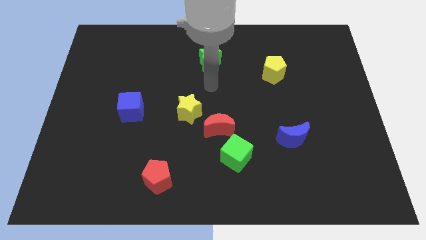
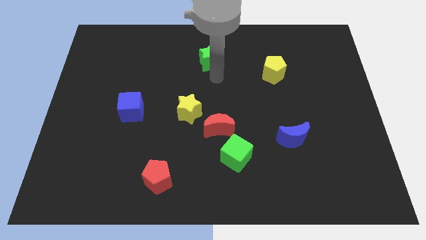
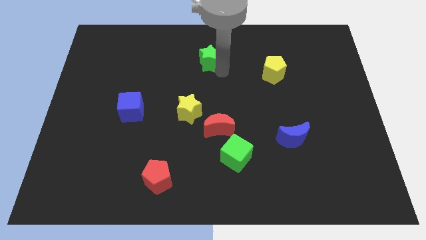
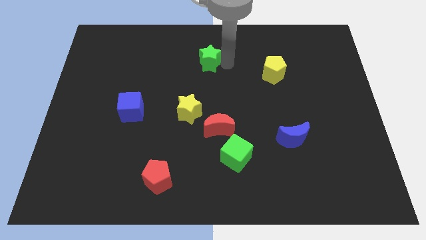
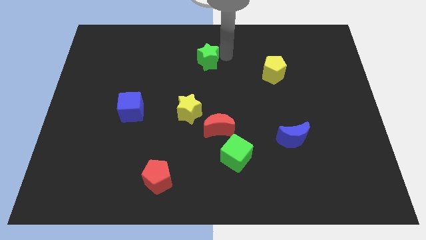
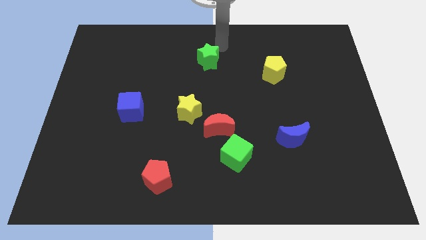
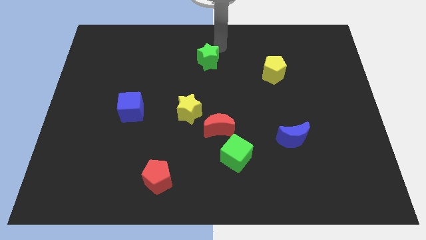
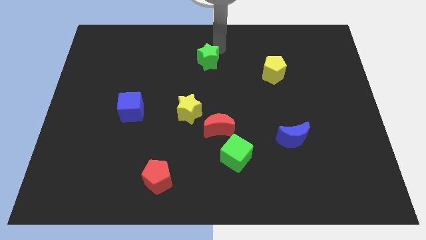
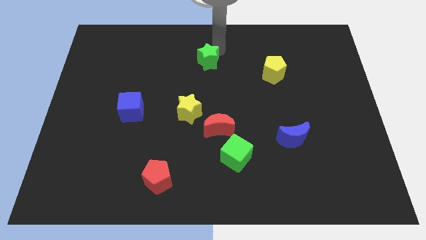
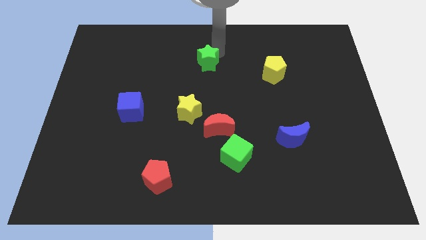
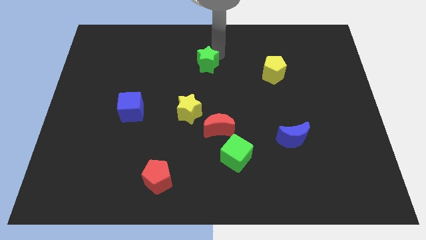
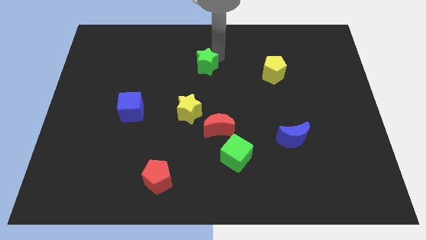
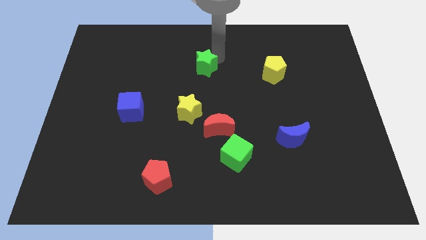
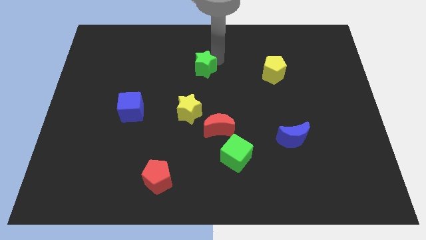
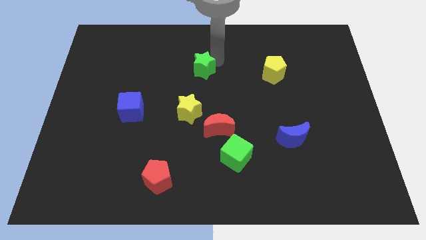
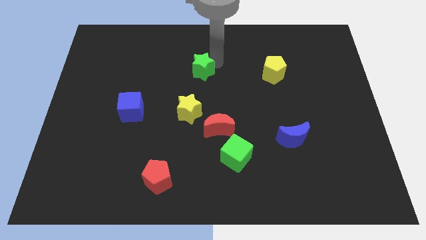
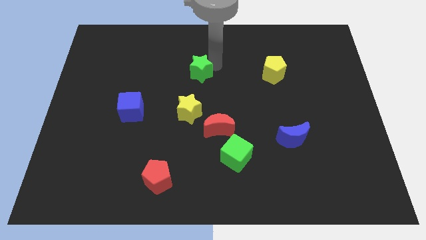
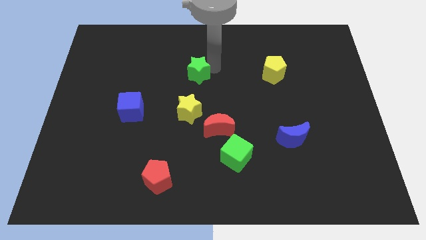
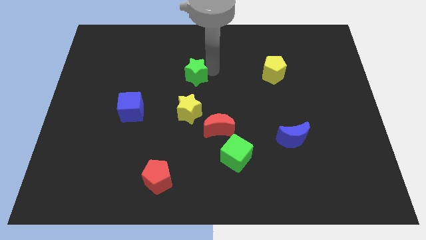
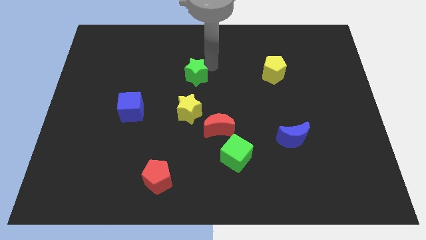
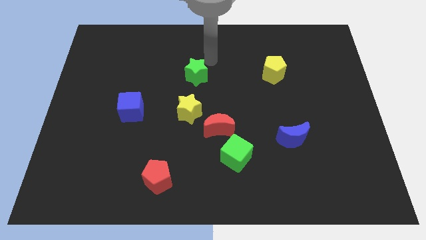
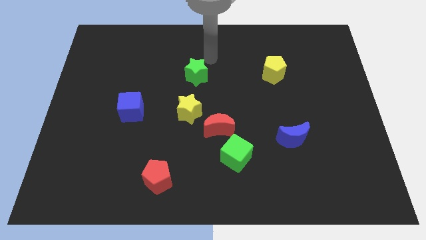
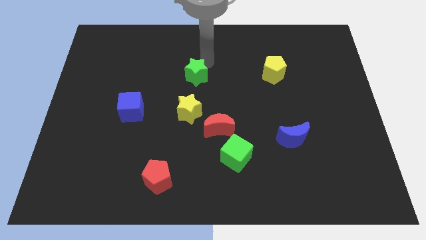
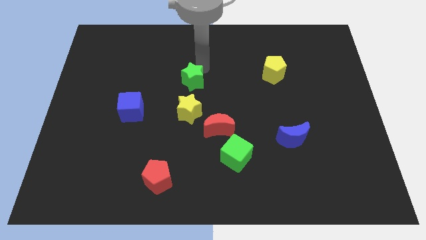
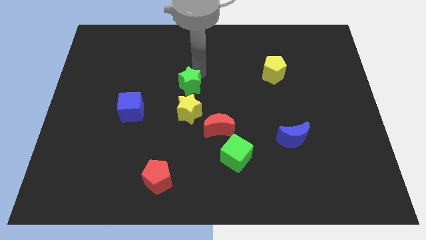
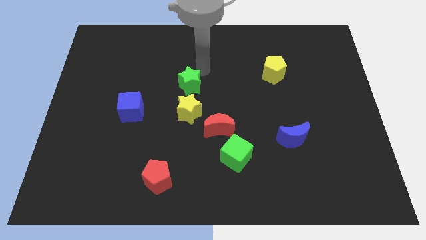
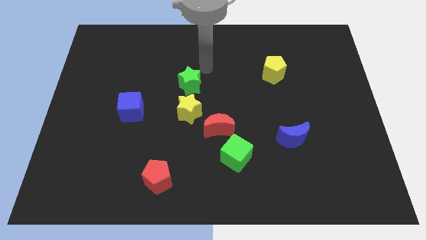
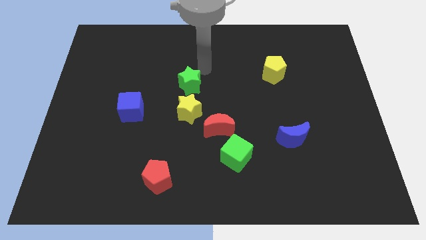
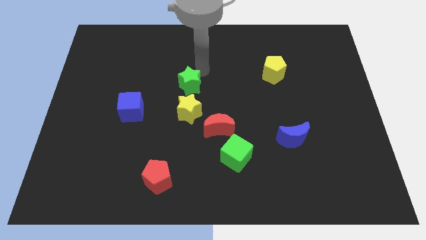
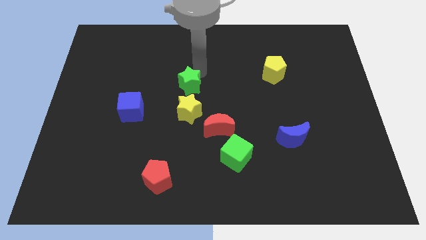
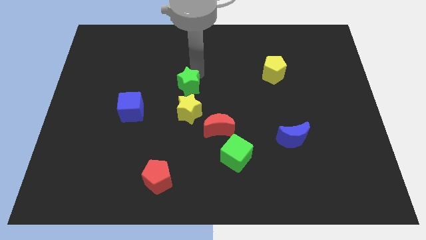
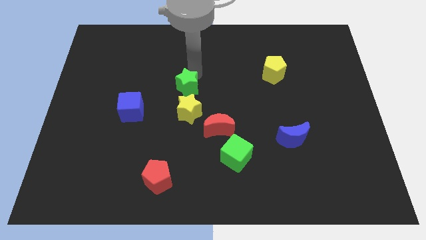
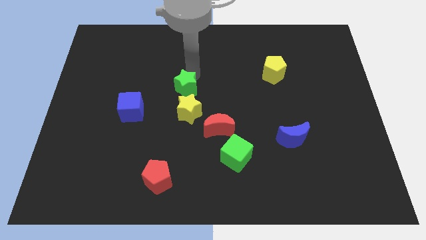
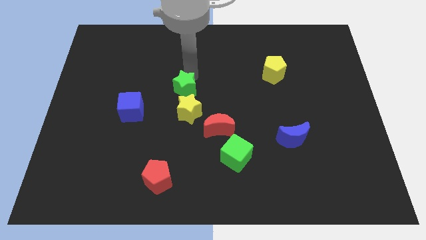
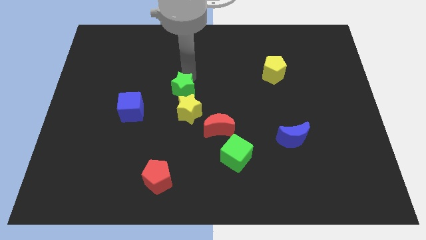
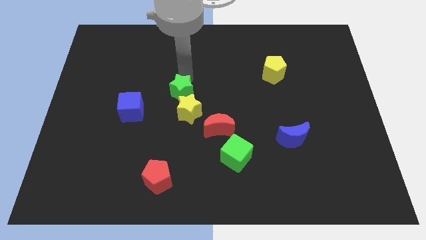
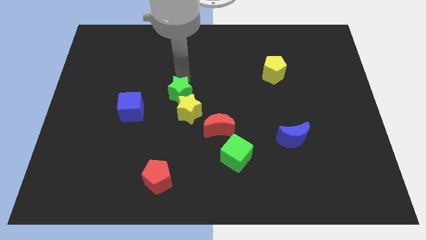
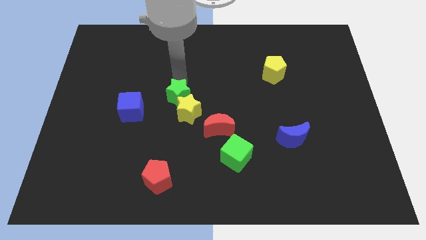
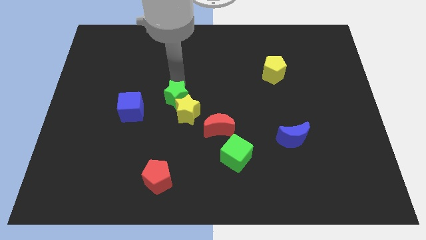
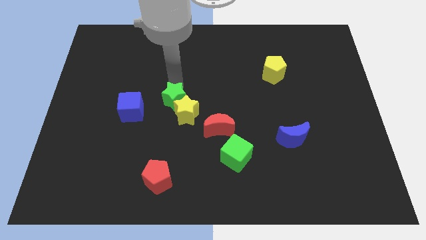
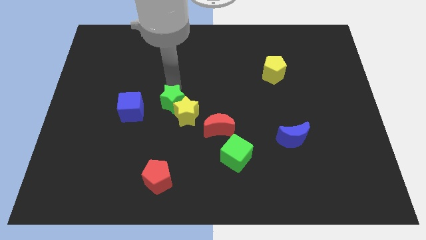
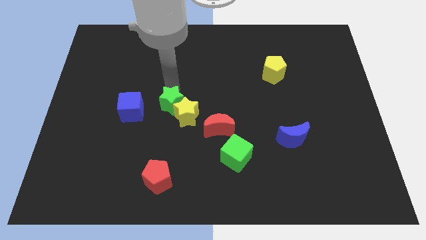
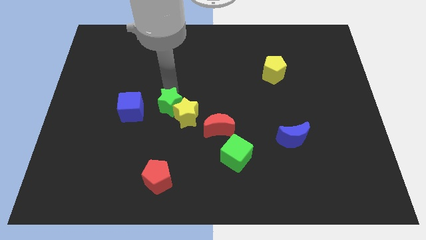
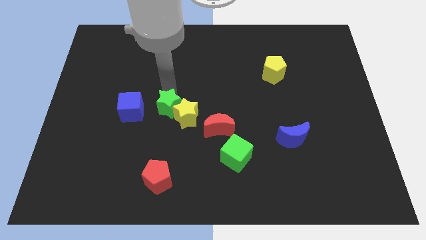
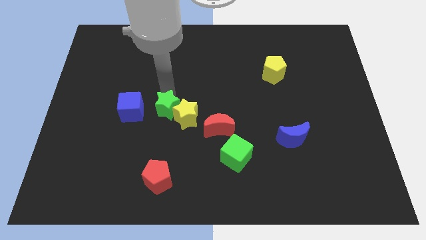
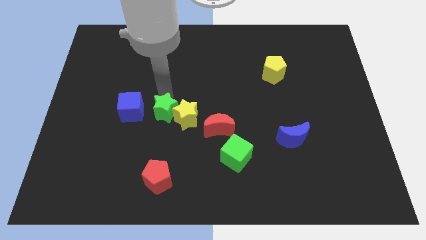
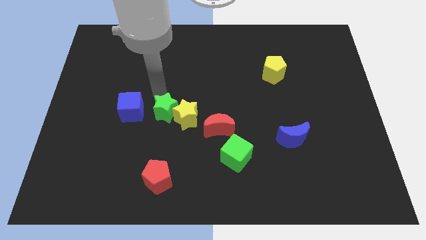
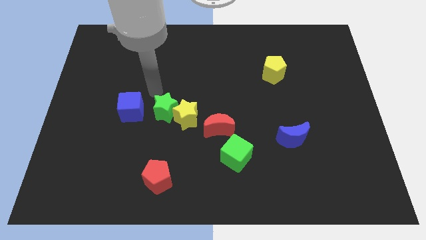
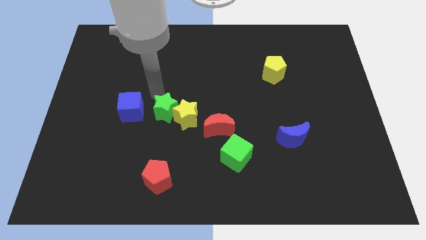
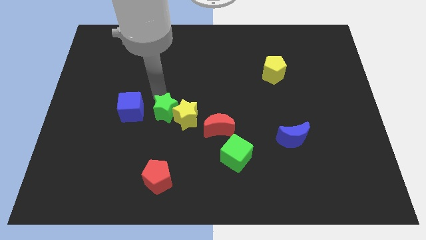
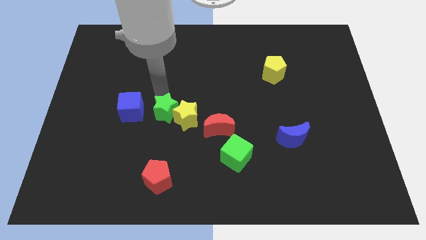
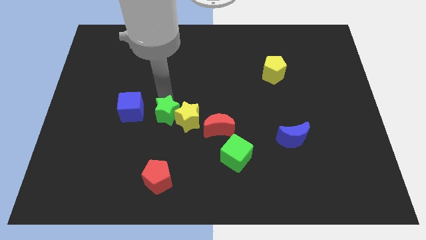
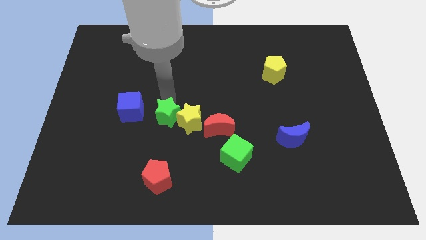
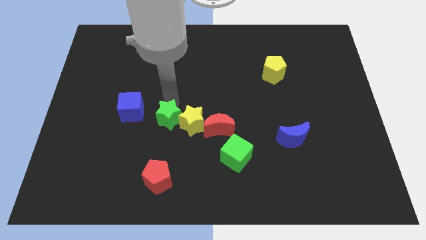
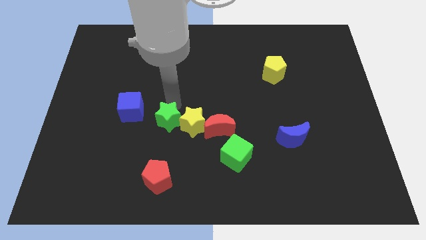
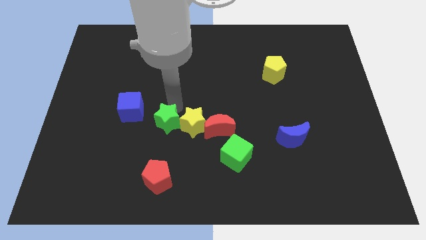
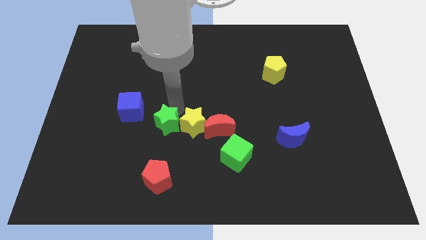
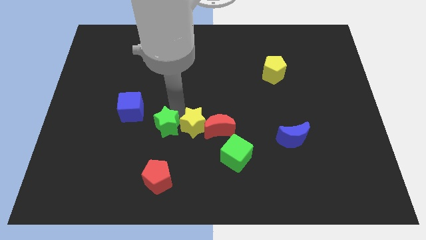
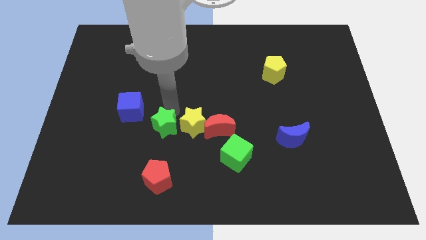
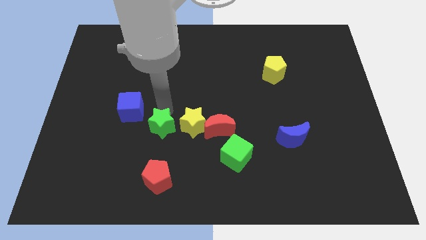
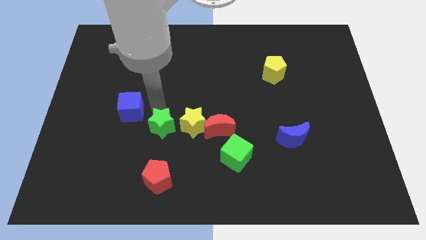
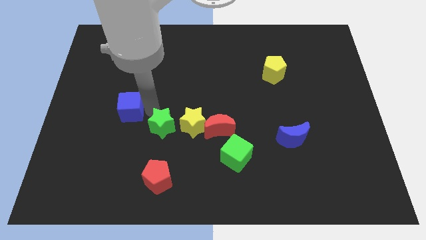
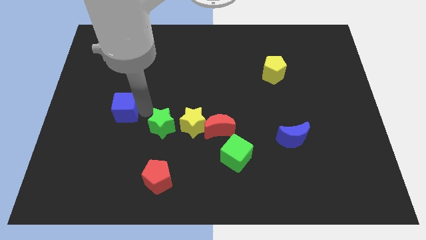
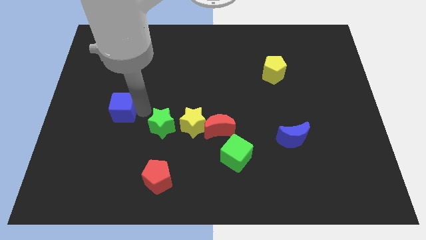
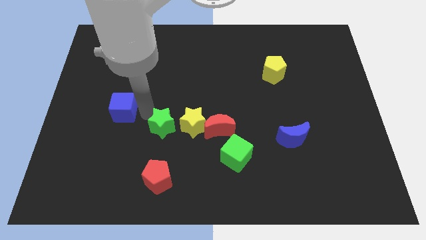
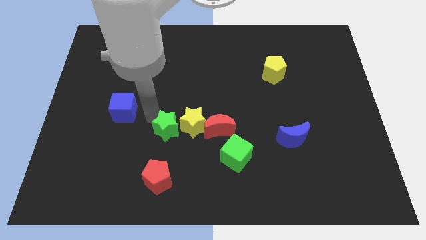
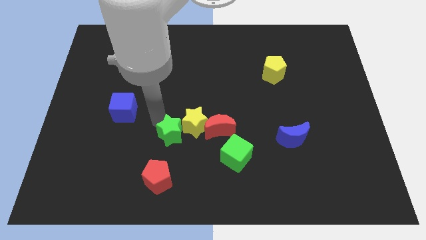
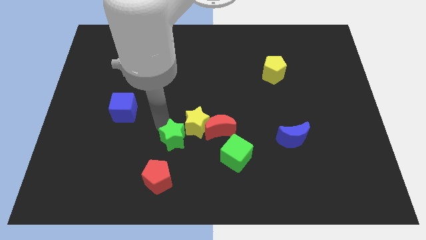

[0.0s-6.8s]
push the green star down

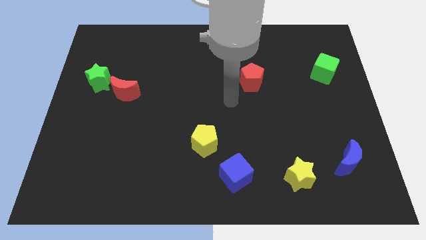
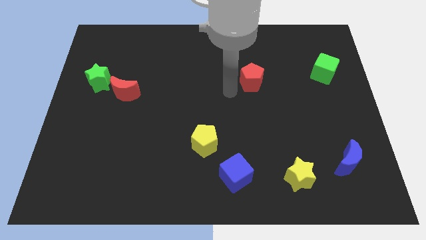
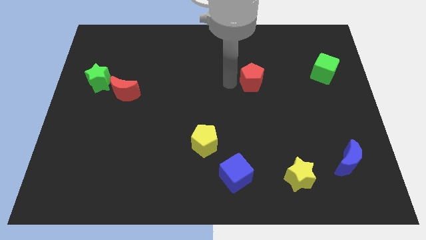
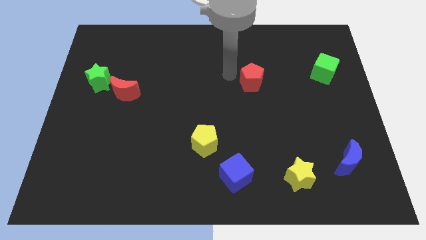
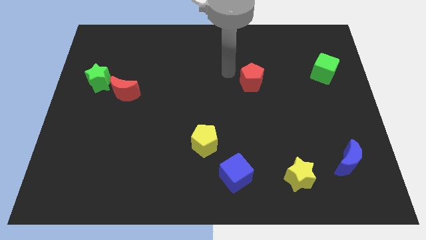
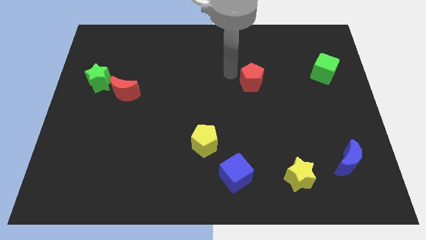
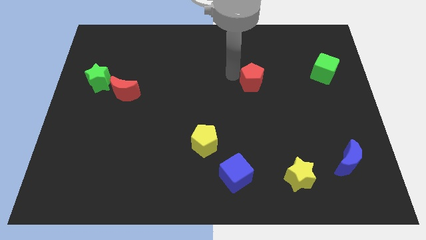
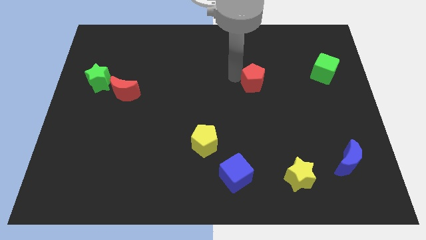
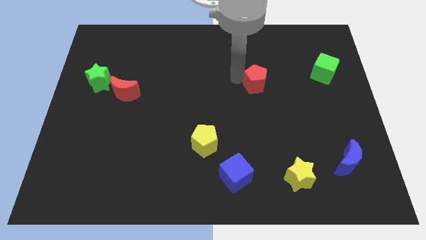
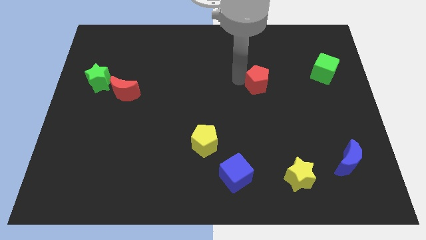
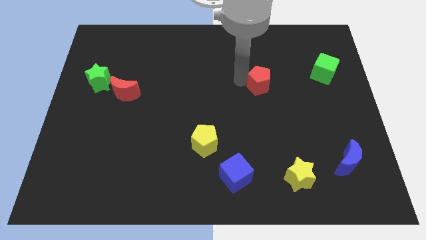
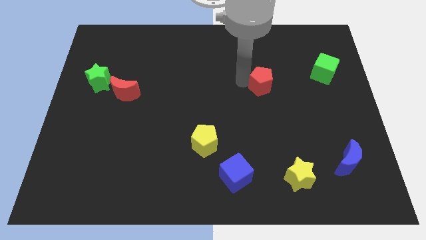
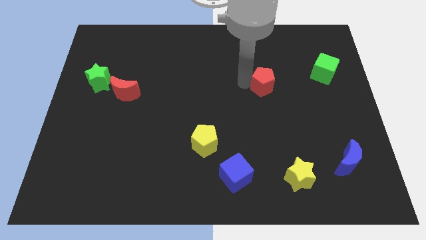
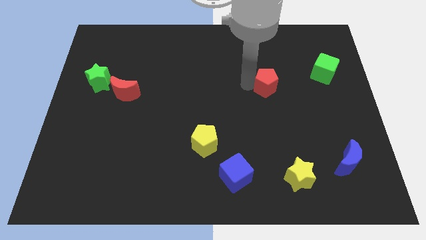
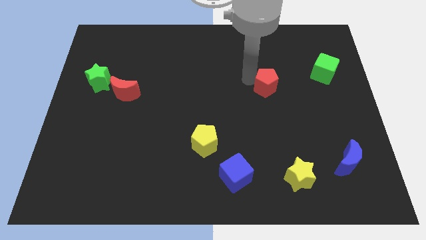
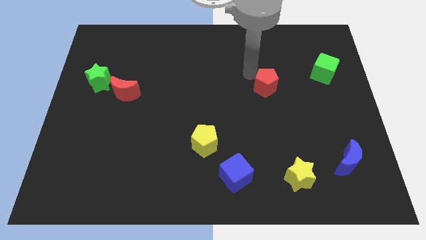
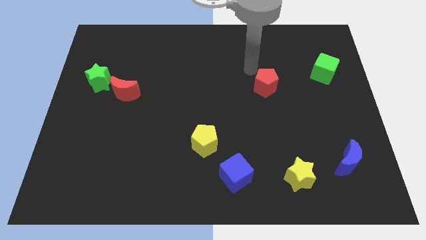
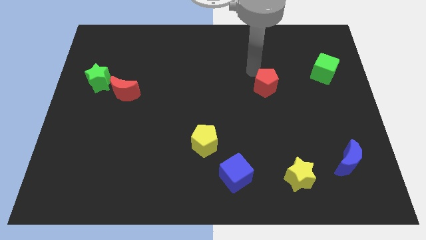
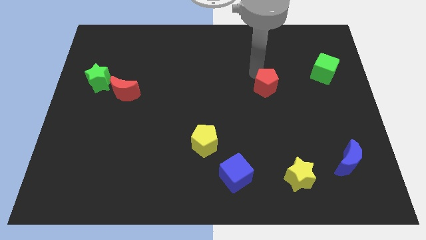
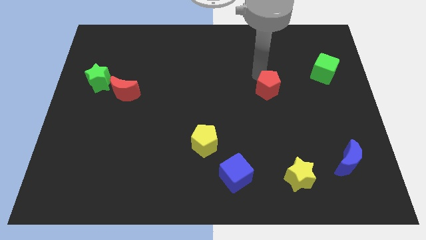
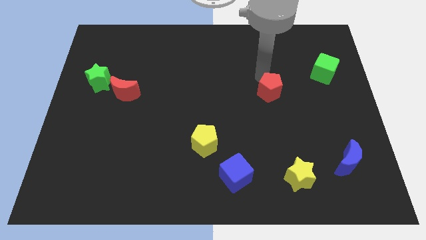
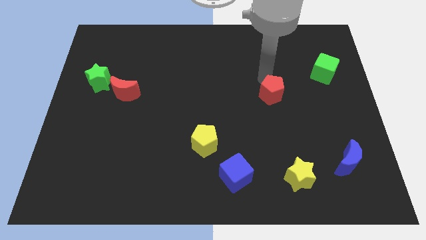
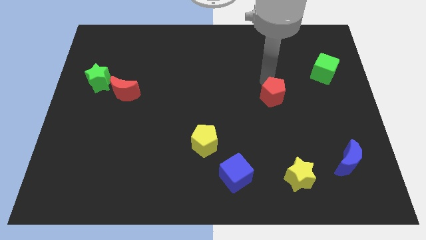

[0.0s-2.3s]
slightly slide the red pentagon downwards and then right
